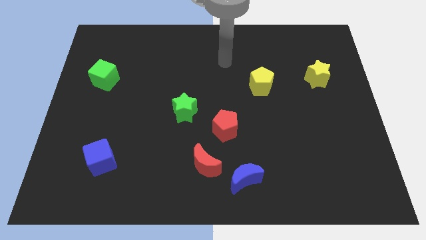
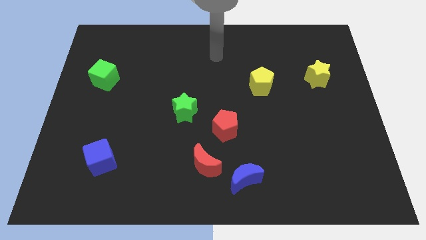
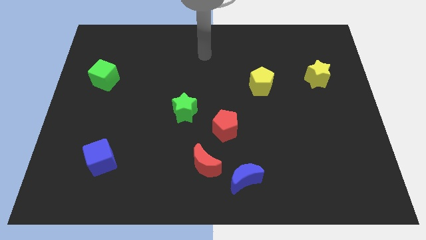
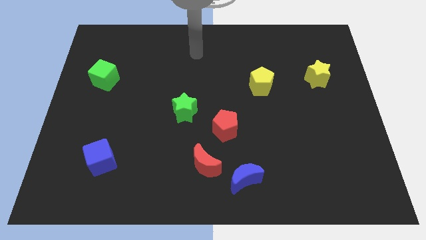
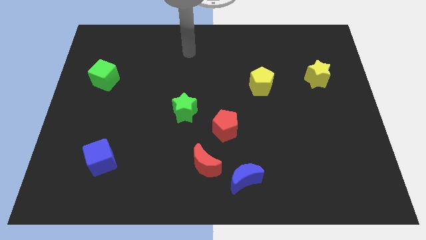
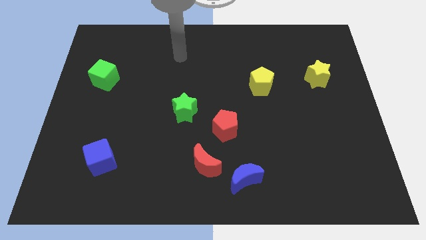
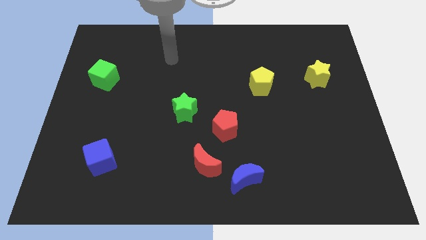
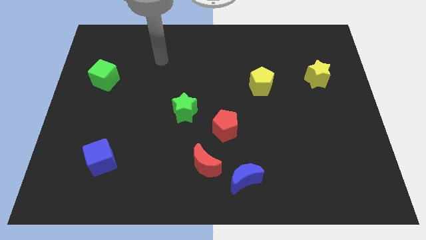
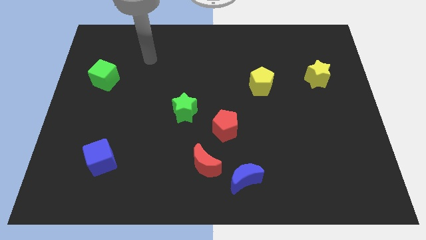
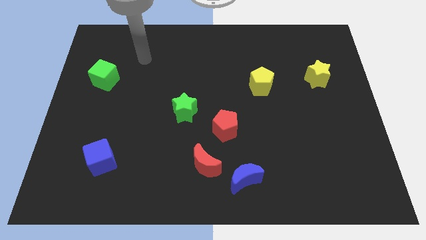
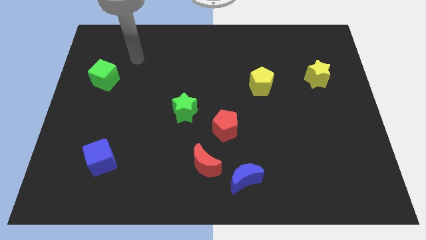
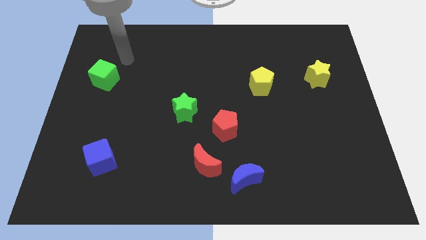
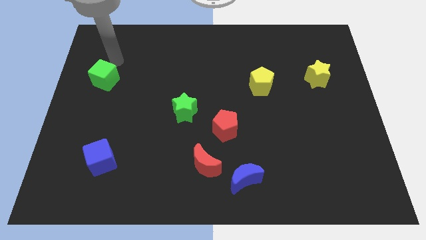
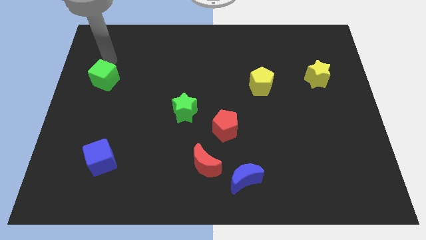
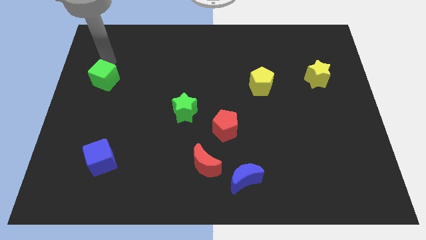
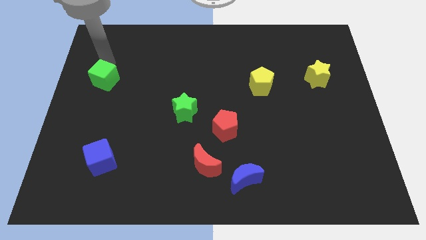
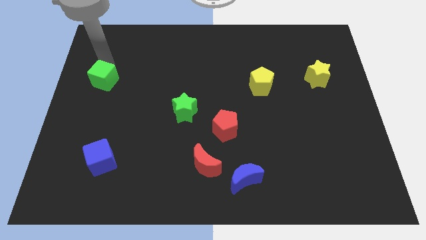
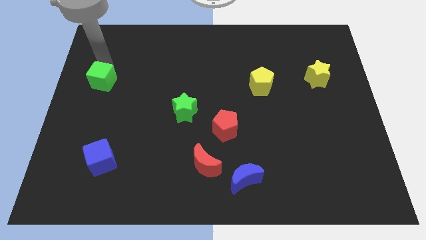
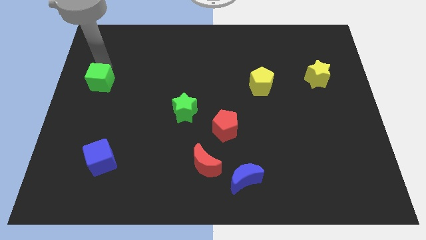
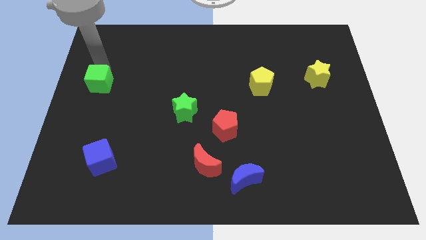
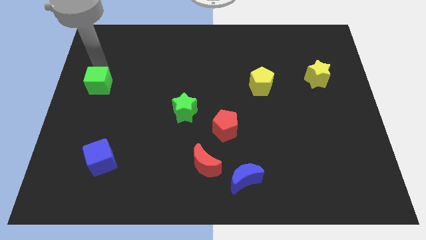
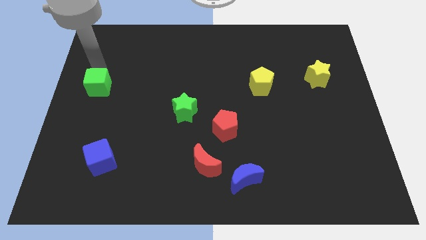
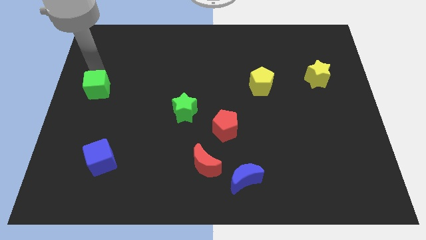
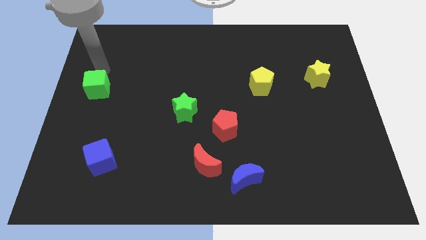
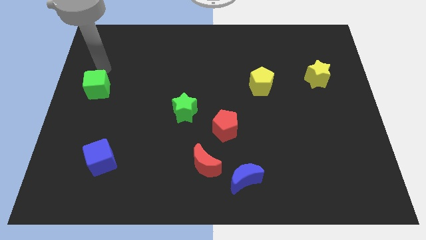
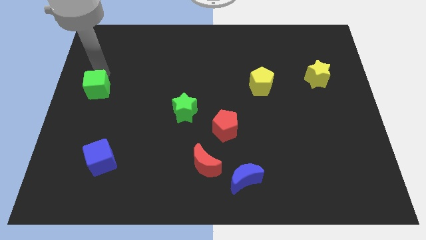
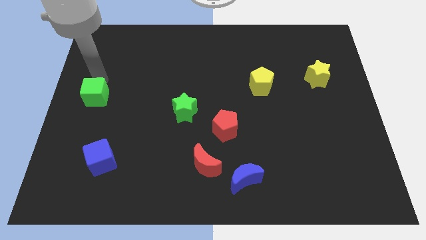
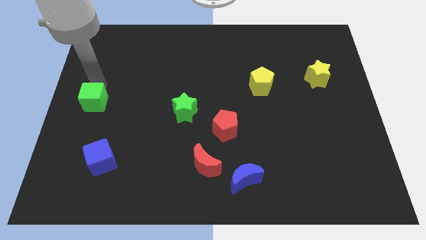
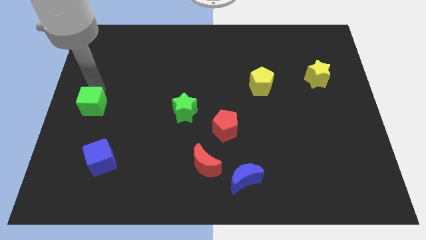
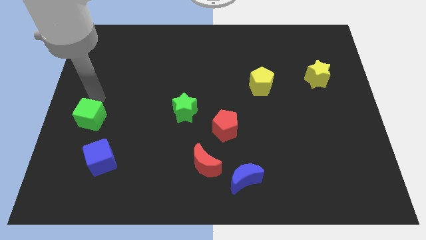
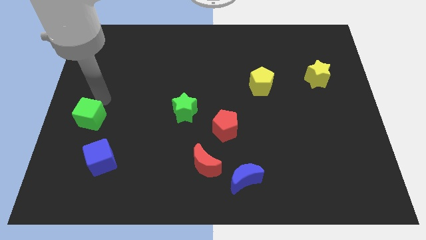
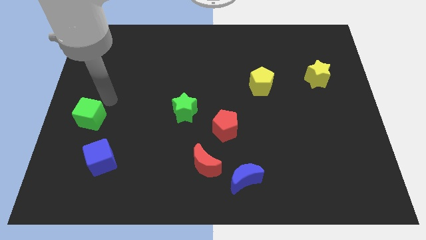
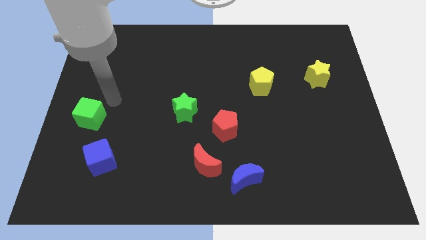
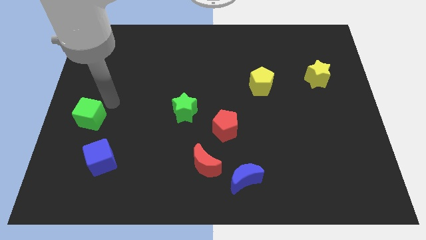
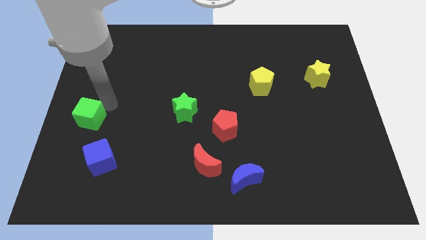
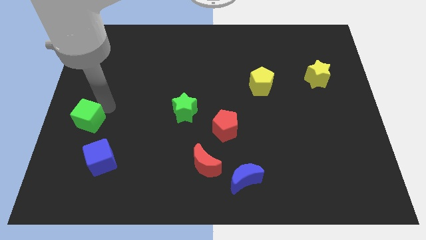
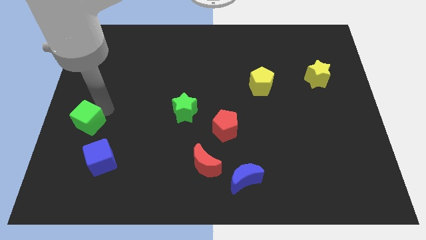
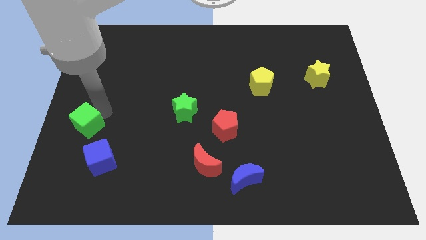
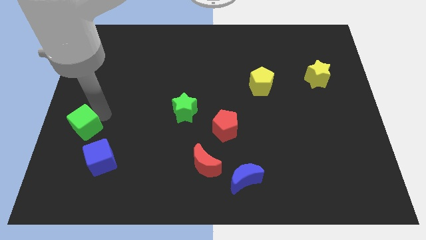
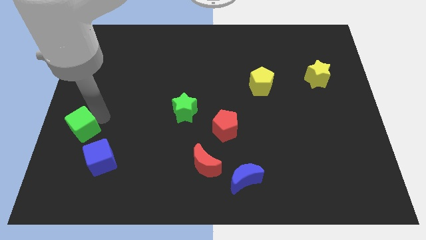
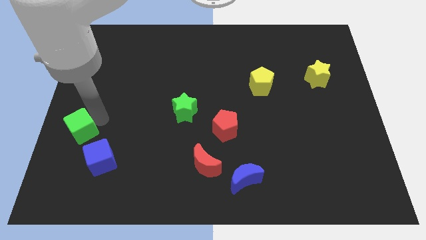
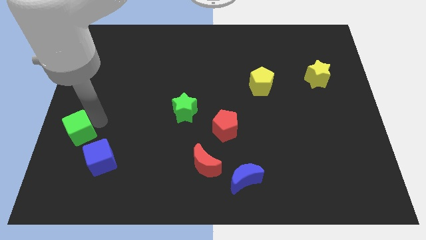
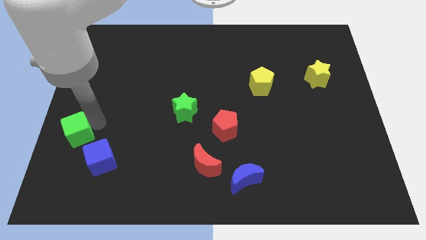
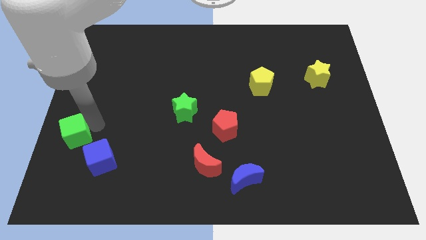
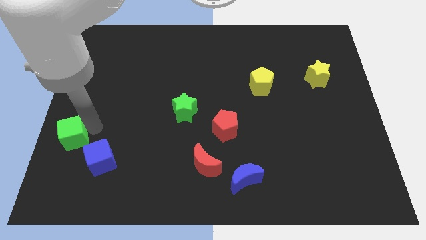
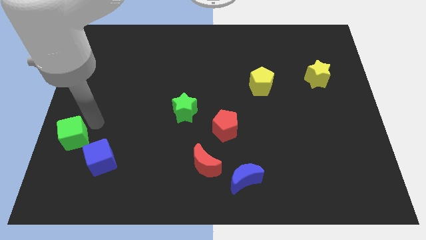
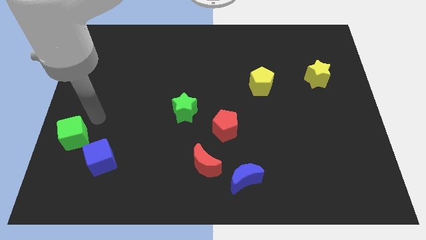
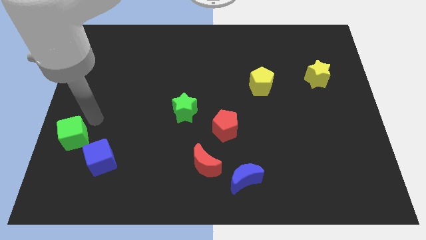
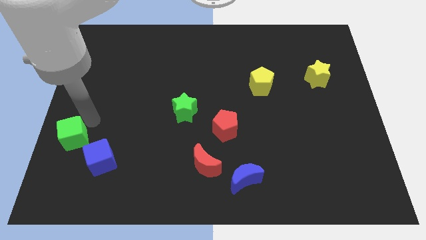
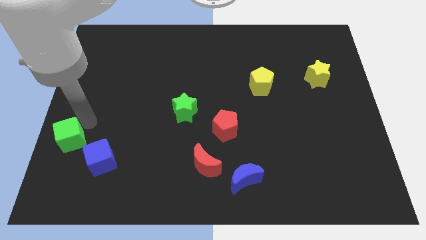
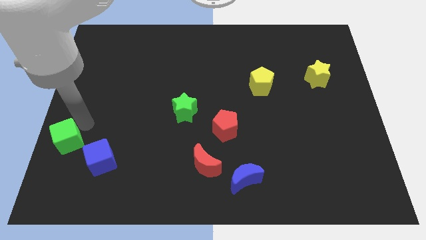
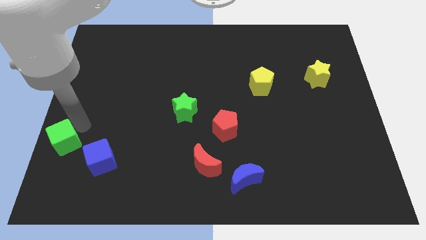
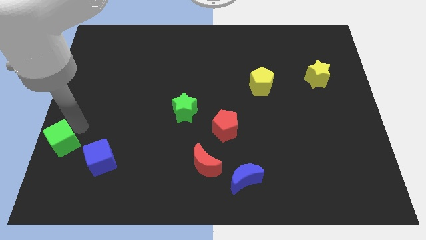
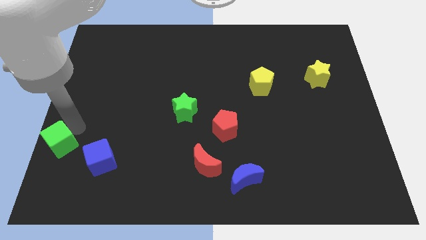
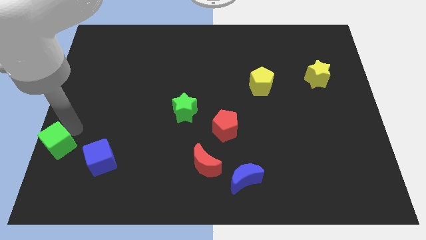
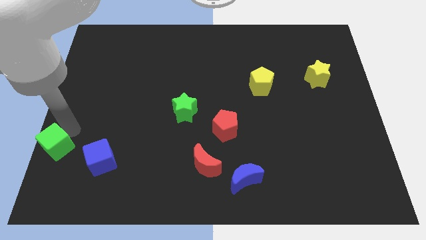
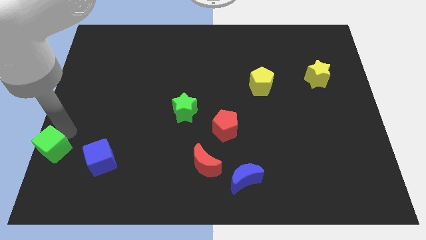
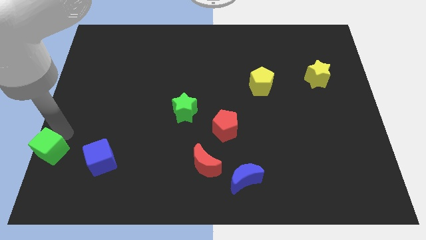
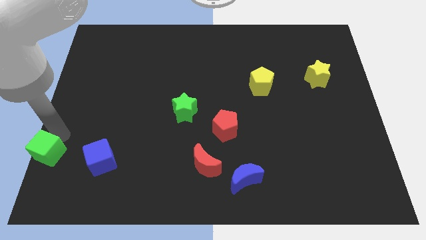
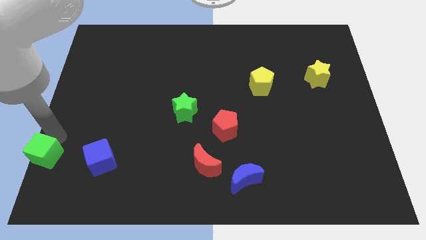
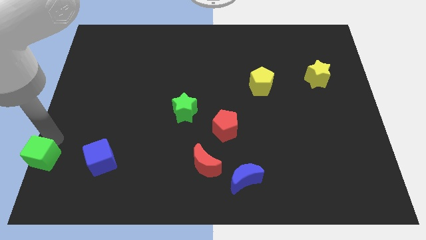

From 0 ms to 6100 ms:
put the green cube to the bottom left corner

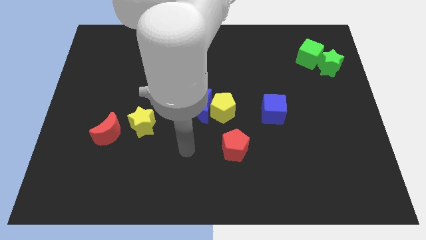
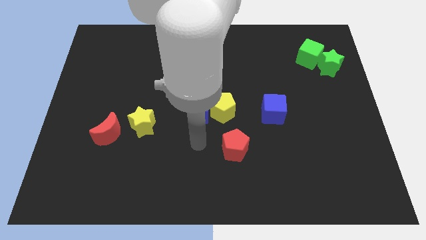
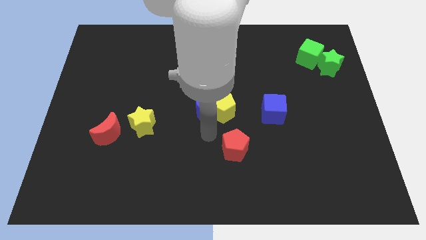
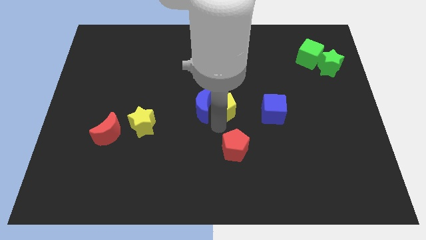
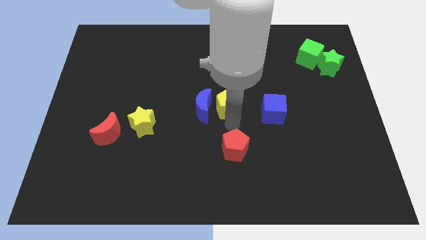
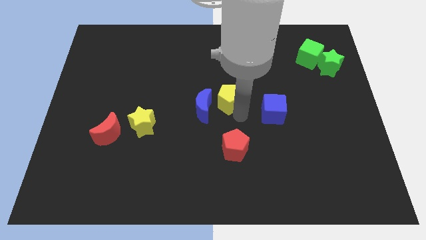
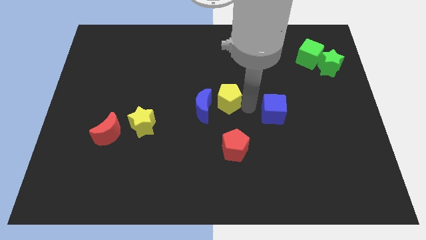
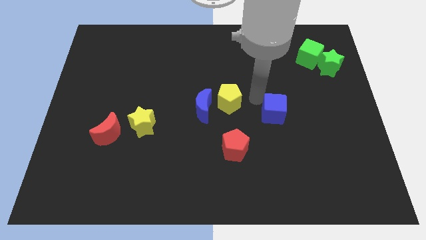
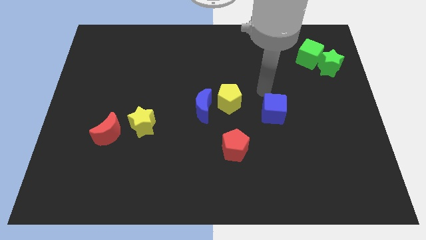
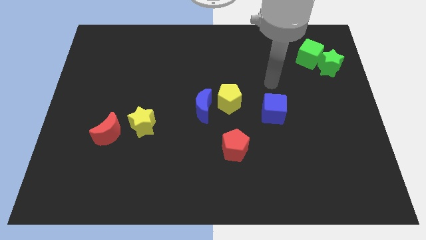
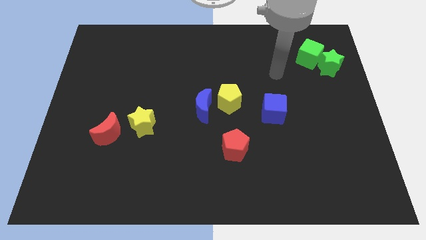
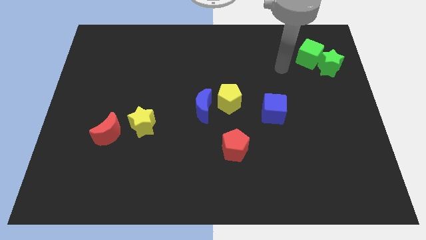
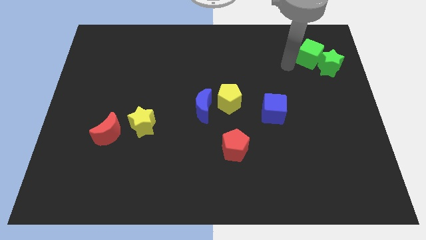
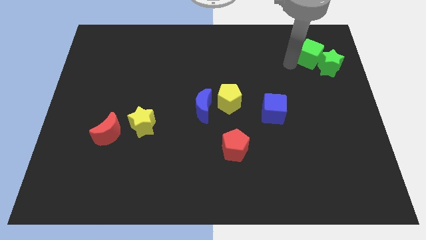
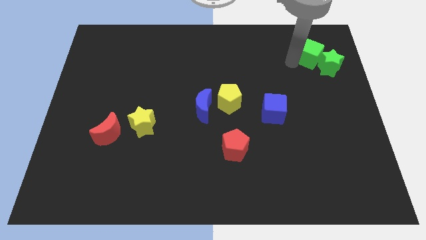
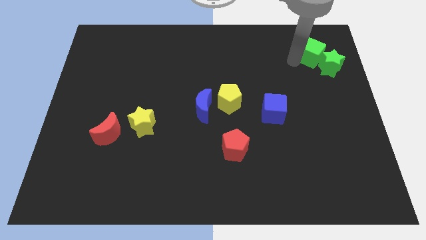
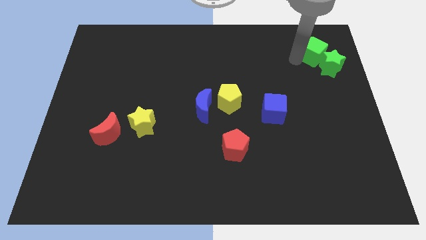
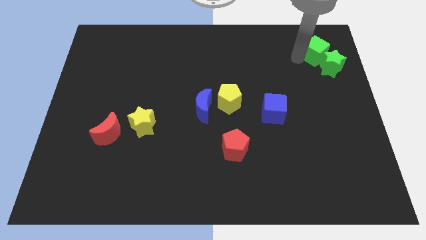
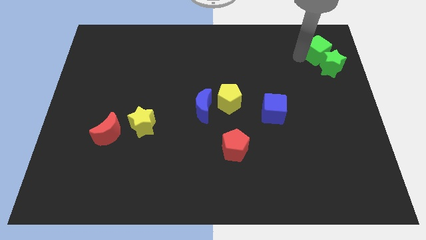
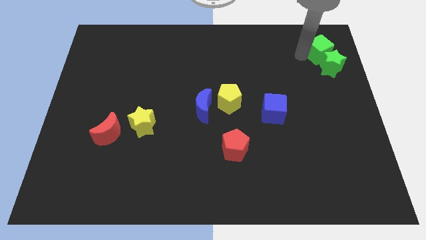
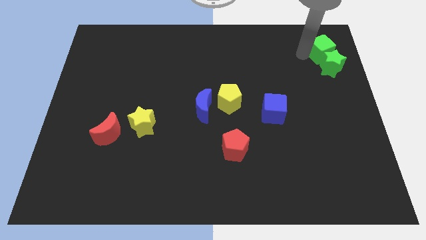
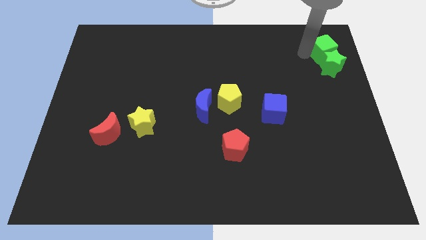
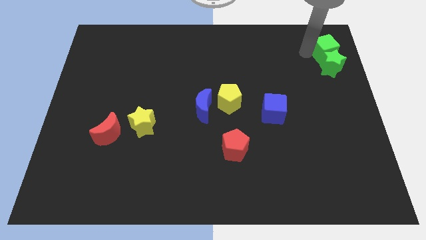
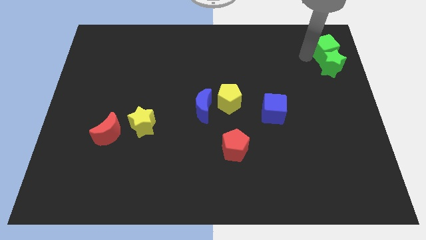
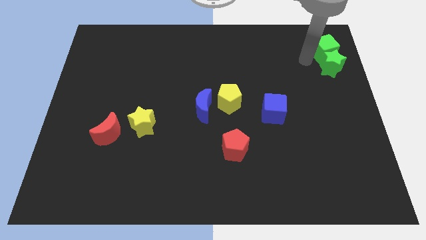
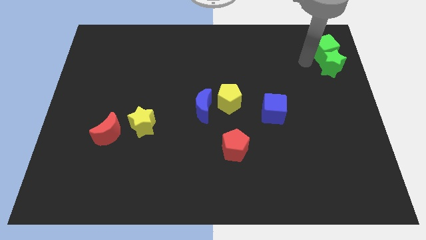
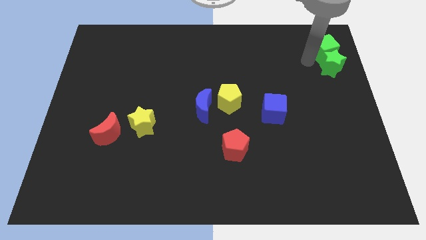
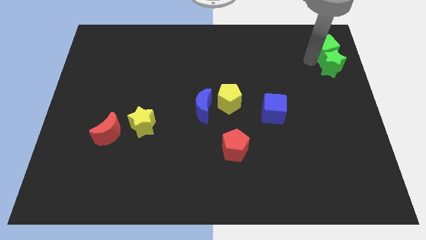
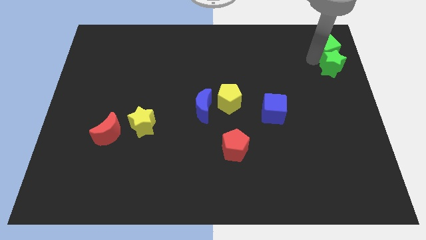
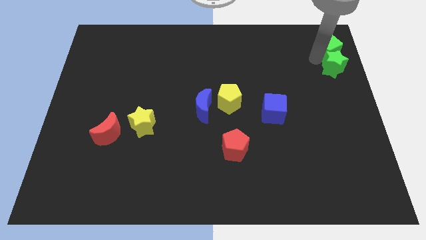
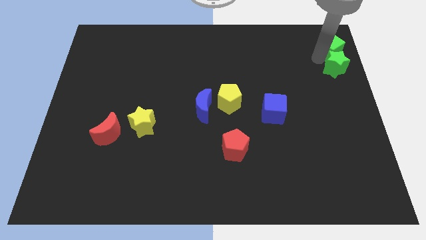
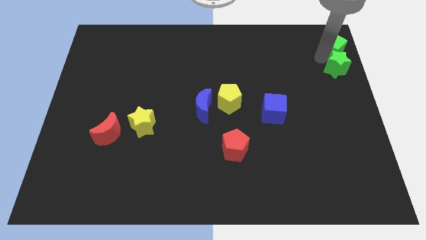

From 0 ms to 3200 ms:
put the green cube to the top right
